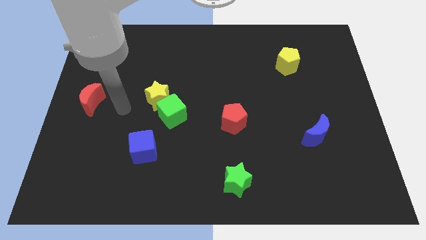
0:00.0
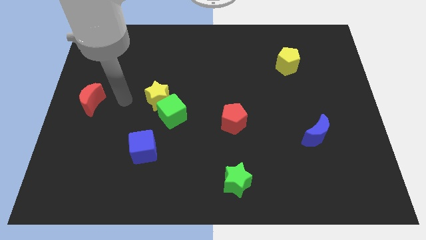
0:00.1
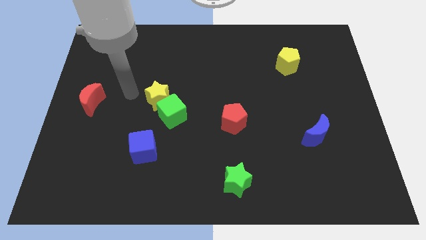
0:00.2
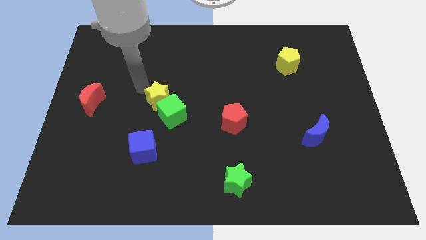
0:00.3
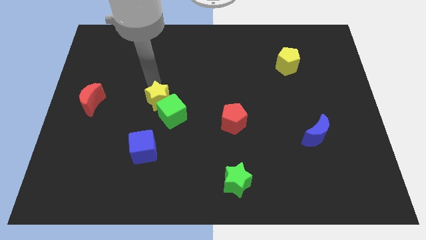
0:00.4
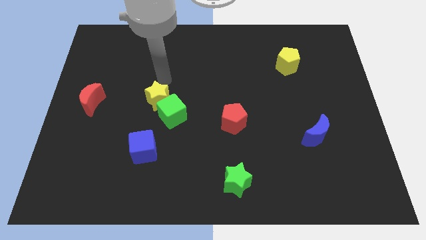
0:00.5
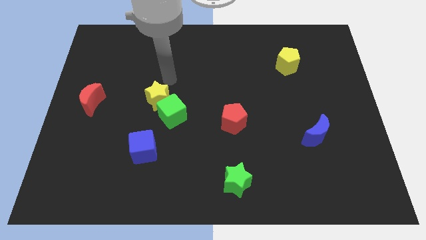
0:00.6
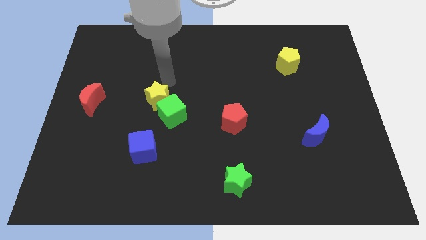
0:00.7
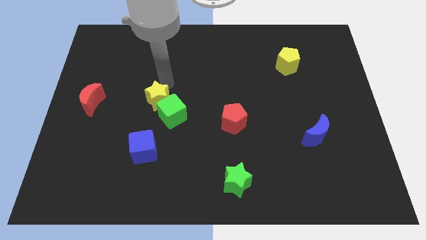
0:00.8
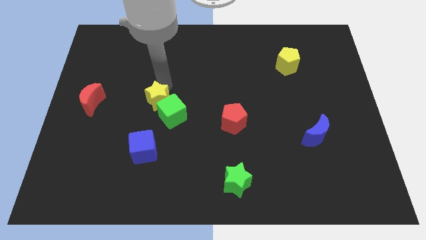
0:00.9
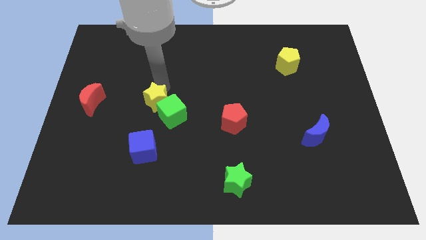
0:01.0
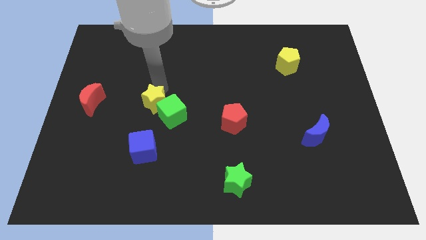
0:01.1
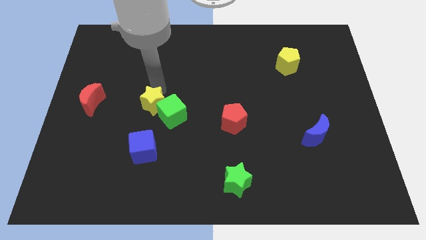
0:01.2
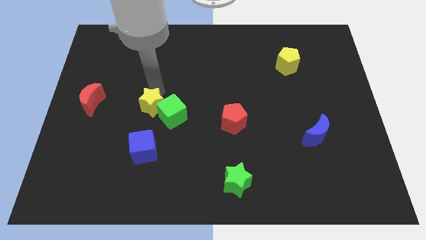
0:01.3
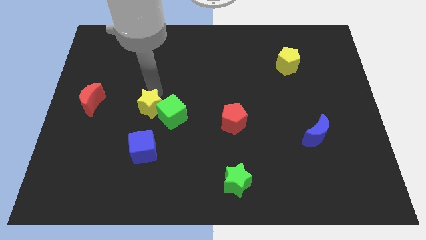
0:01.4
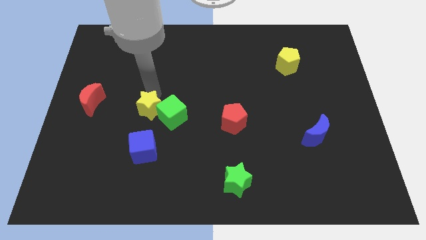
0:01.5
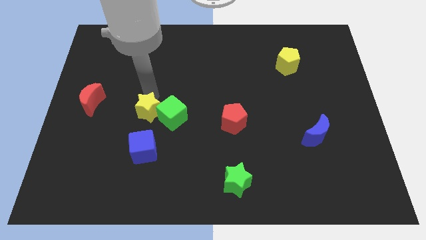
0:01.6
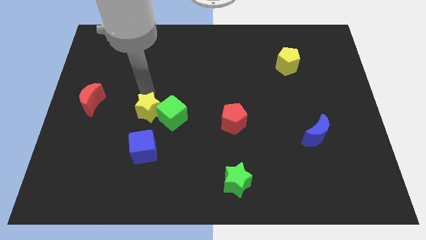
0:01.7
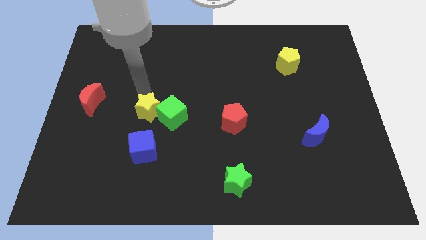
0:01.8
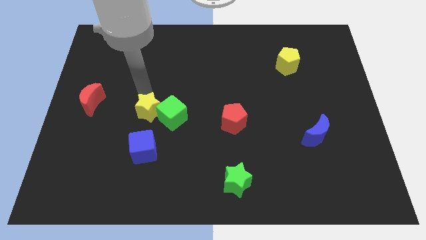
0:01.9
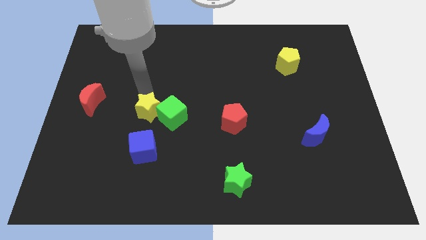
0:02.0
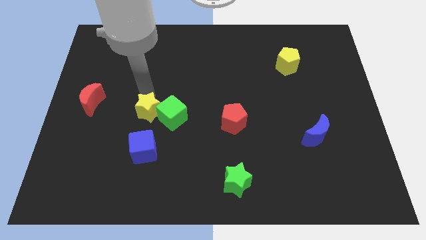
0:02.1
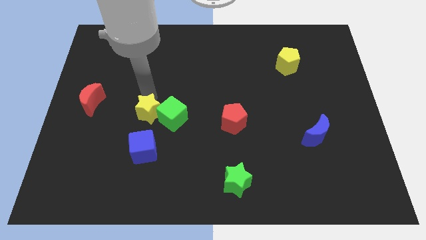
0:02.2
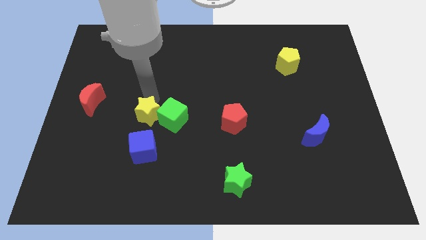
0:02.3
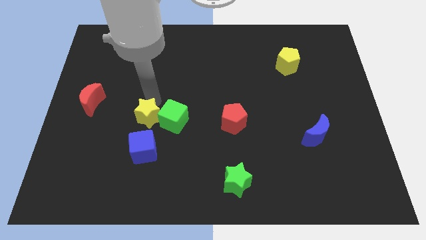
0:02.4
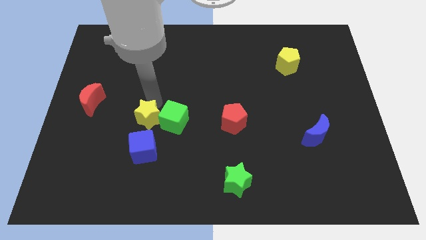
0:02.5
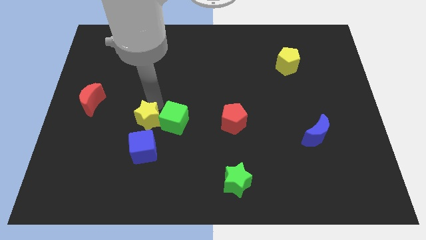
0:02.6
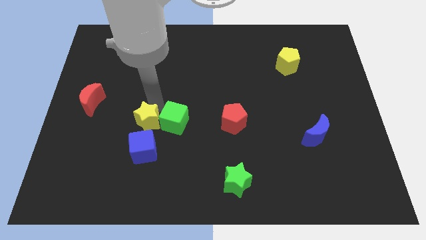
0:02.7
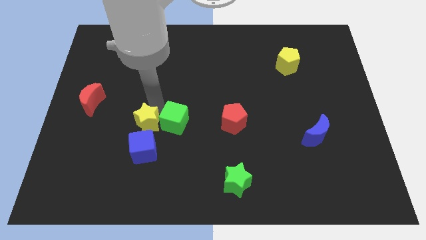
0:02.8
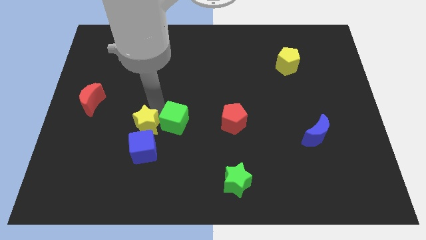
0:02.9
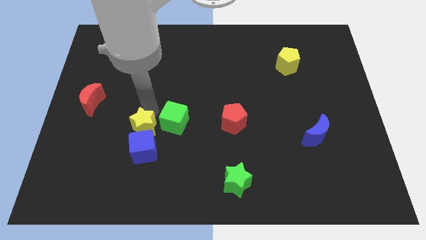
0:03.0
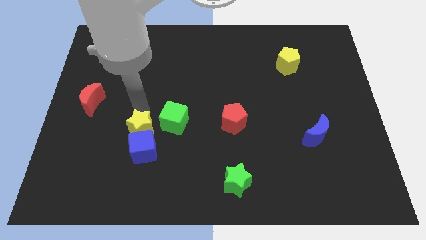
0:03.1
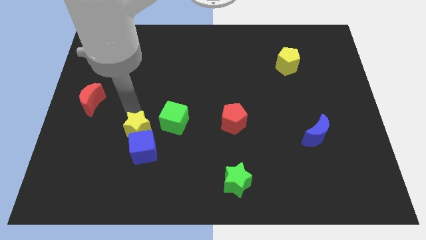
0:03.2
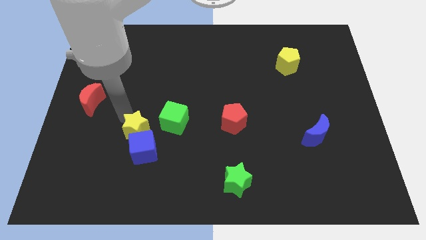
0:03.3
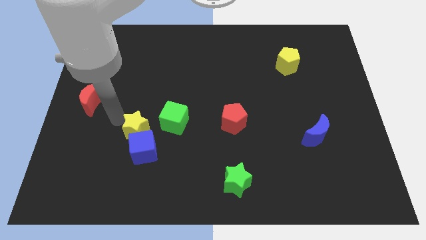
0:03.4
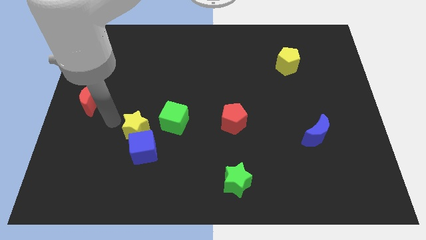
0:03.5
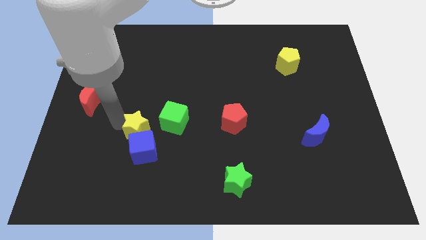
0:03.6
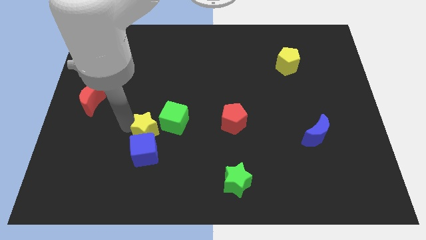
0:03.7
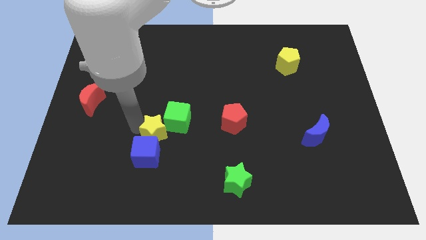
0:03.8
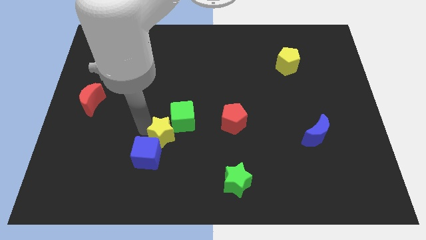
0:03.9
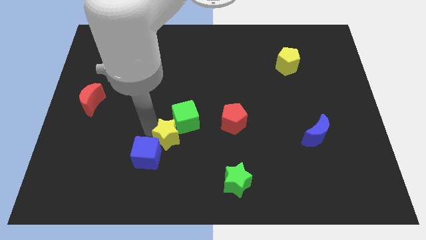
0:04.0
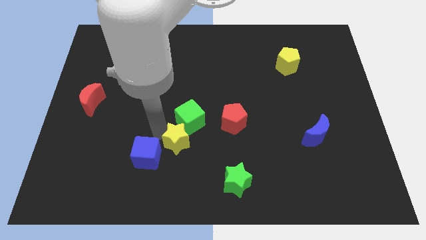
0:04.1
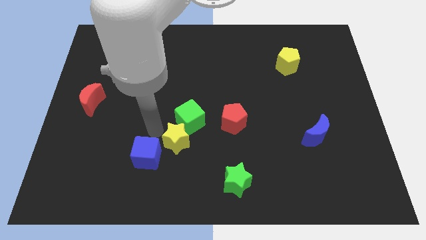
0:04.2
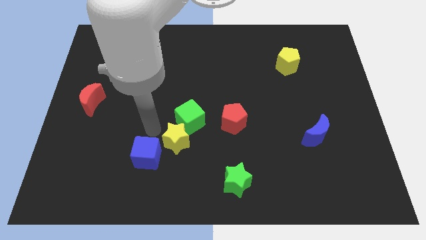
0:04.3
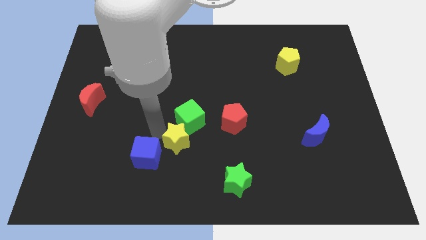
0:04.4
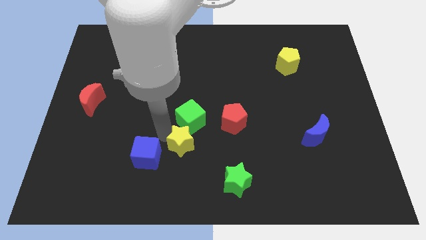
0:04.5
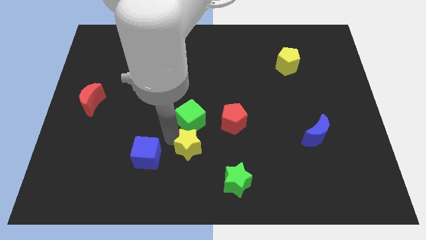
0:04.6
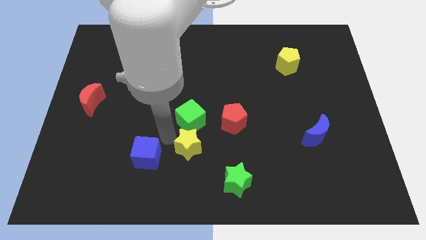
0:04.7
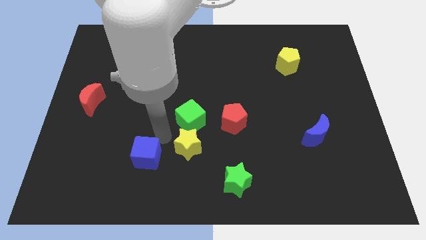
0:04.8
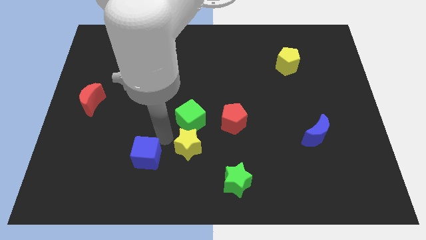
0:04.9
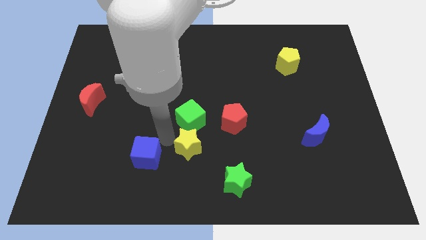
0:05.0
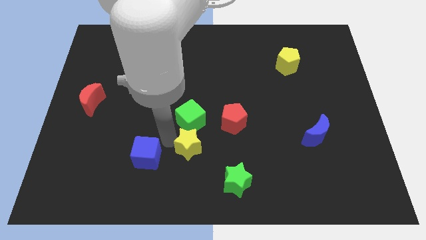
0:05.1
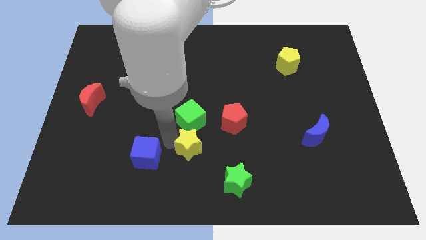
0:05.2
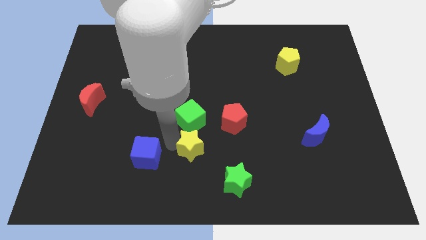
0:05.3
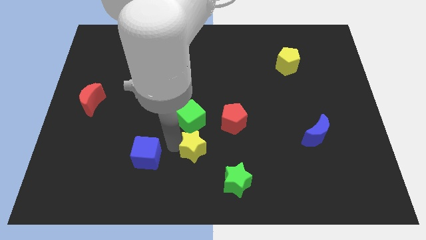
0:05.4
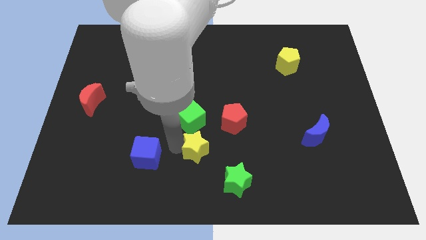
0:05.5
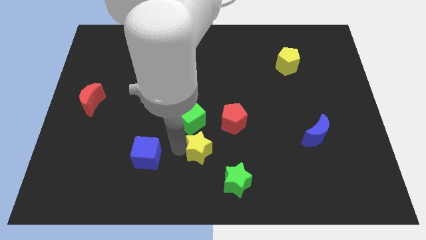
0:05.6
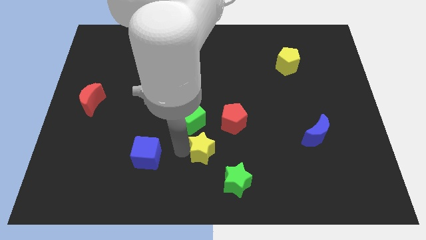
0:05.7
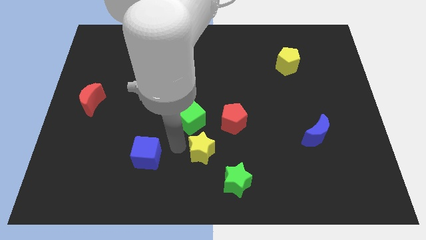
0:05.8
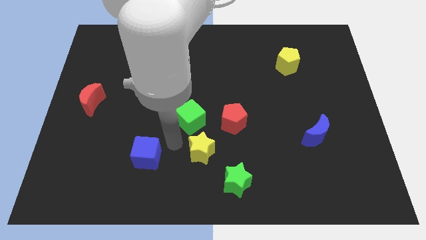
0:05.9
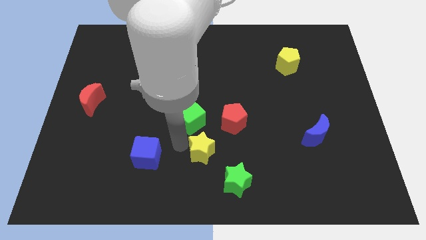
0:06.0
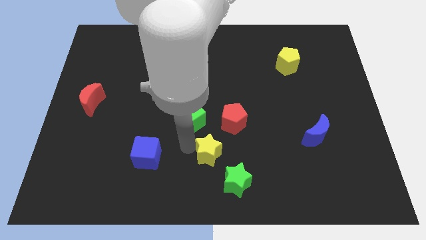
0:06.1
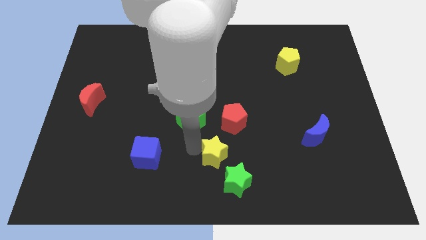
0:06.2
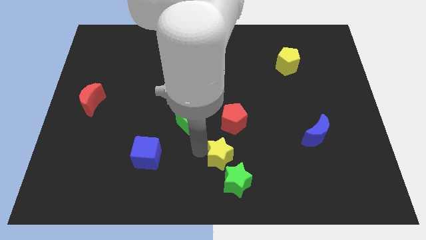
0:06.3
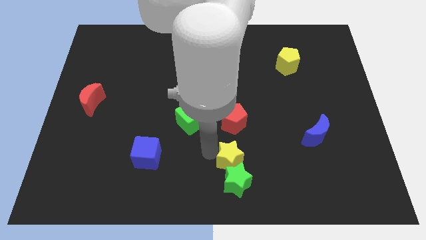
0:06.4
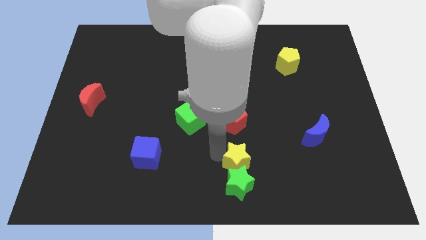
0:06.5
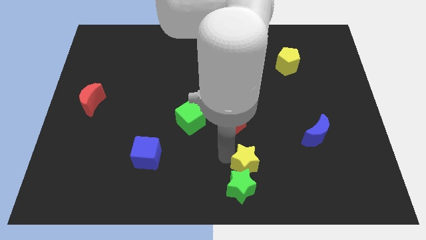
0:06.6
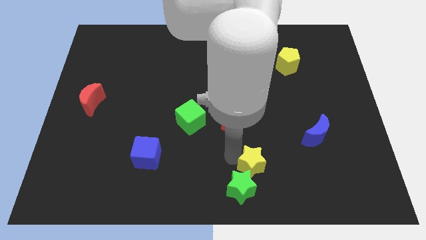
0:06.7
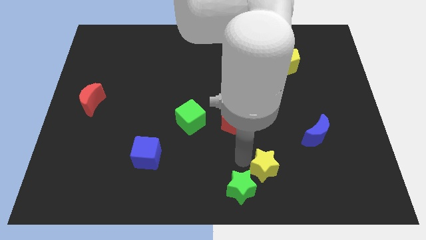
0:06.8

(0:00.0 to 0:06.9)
slide the yellow star just right of the green star
